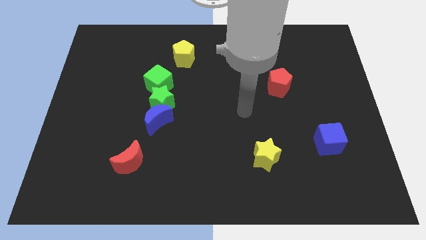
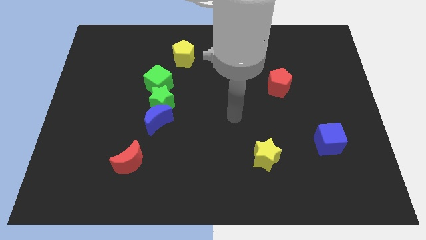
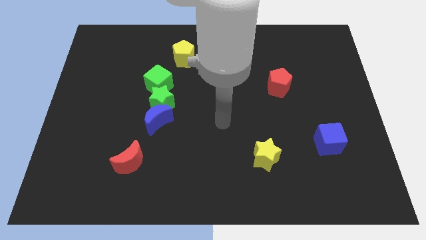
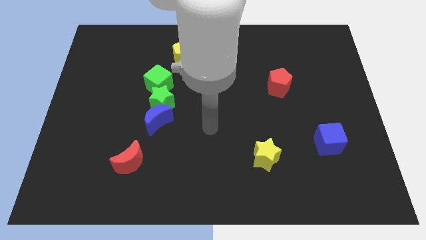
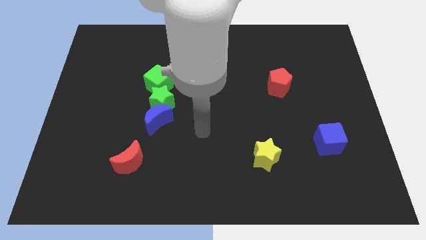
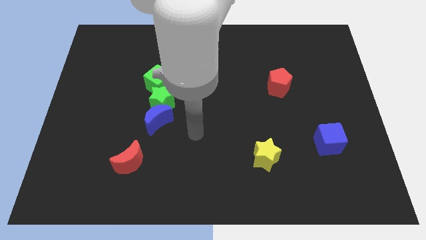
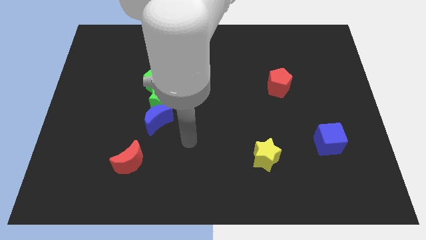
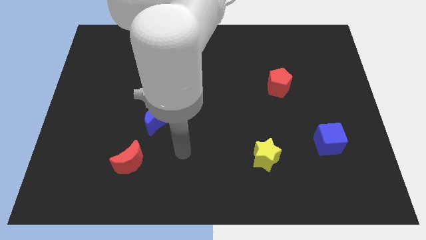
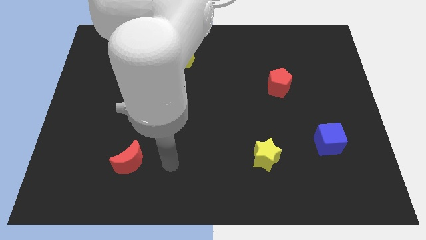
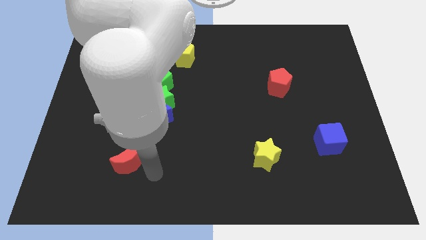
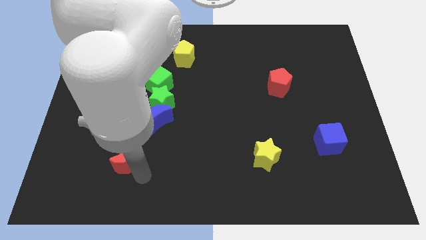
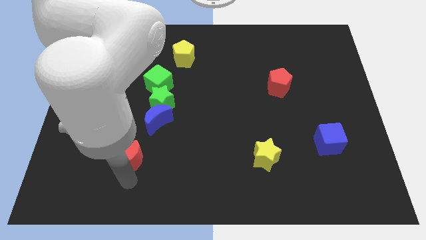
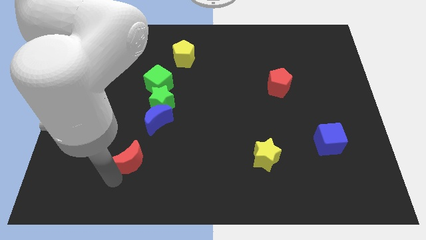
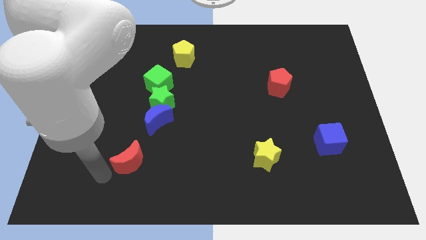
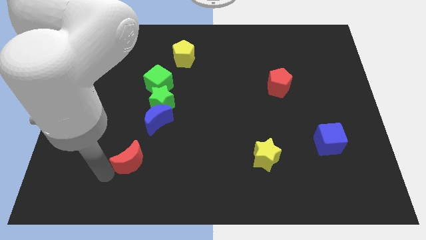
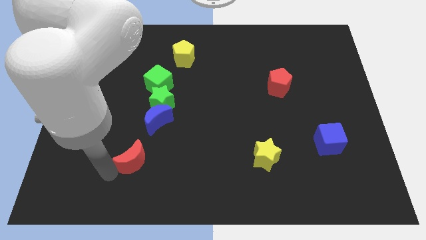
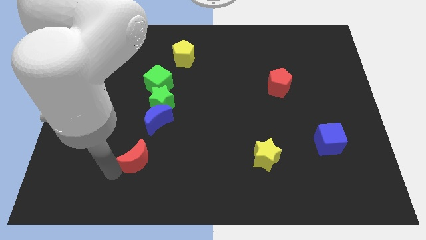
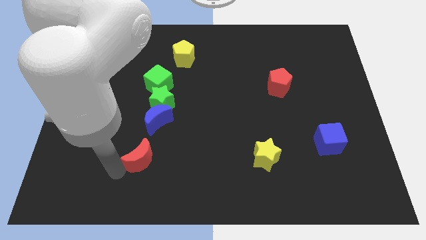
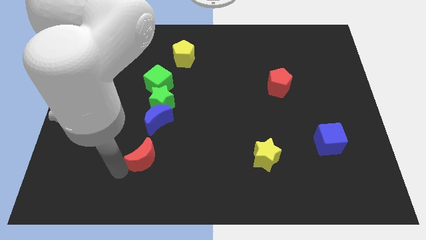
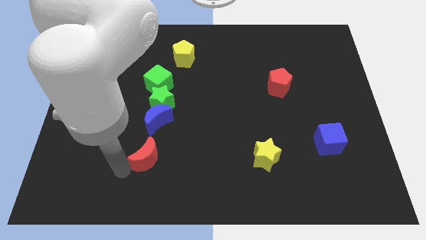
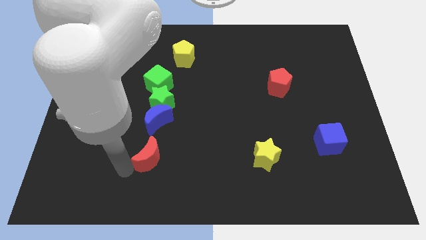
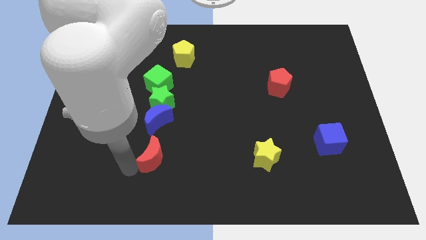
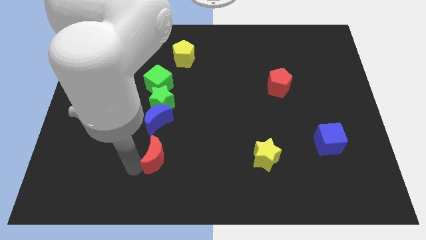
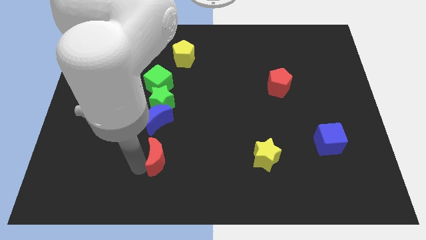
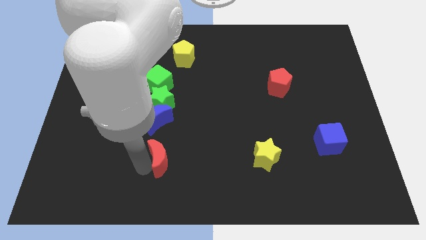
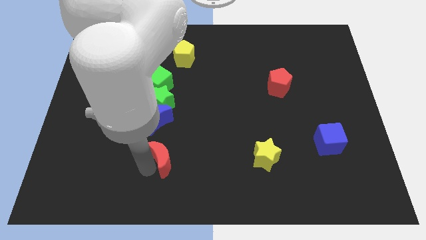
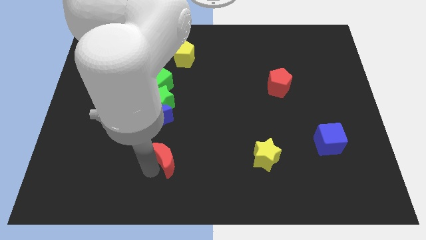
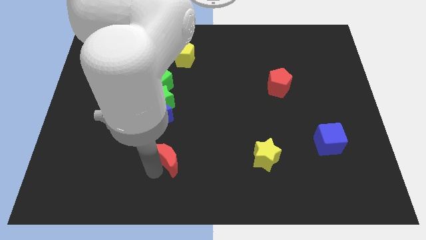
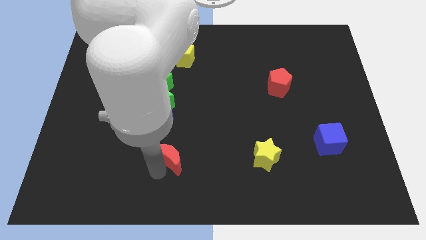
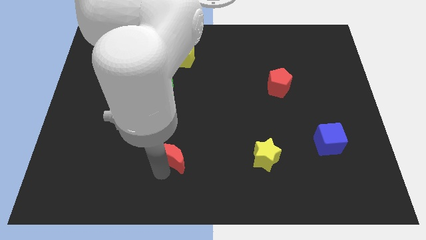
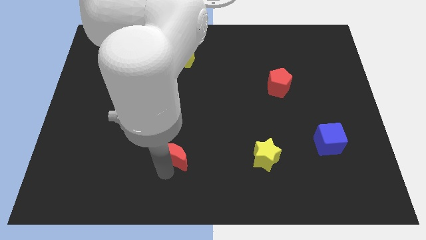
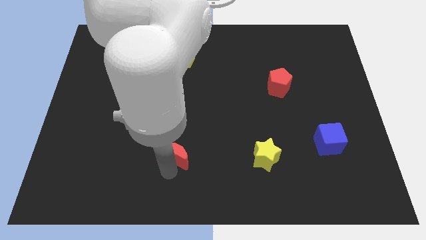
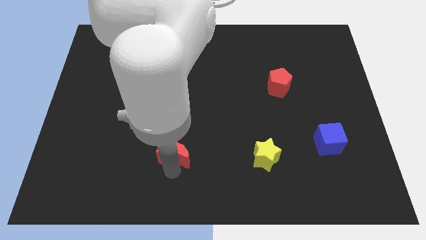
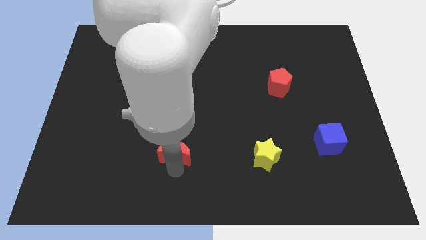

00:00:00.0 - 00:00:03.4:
push the red moon slightly upwards and then to the right

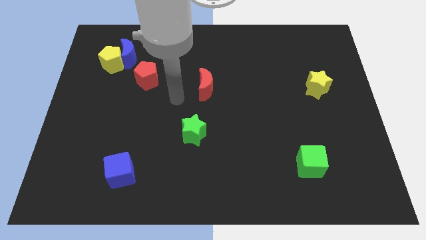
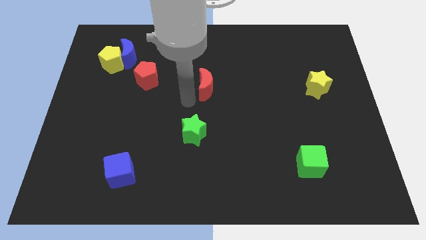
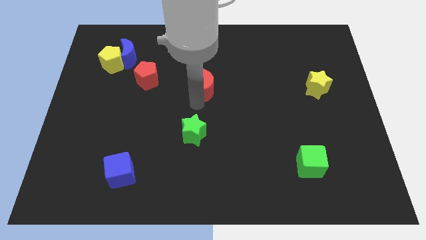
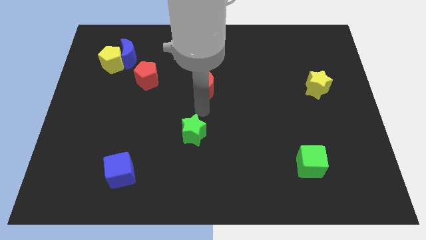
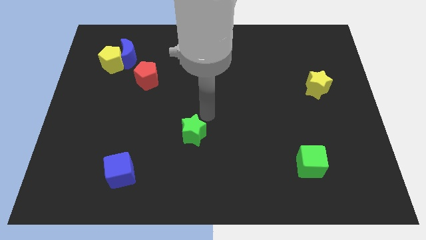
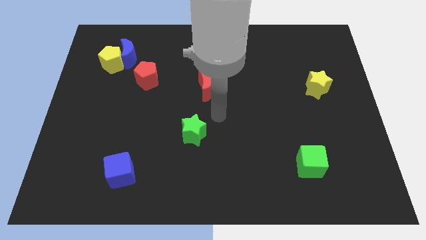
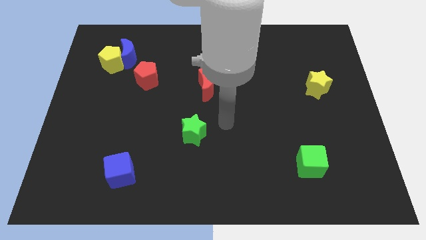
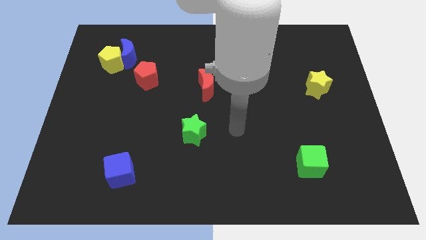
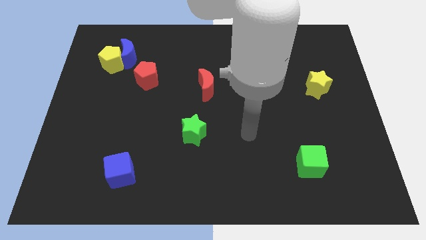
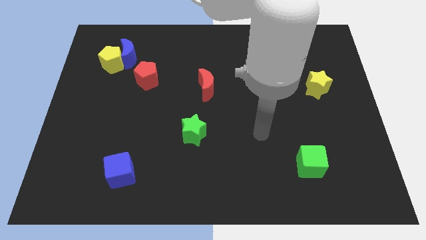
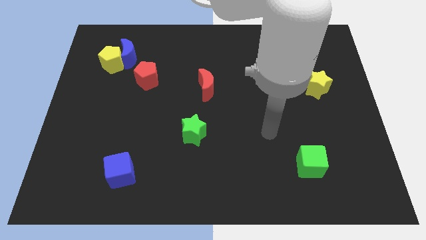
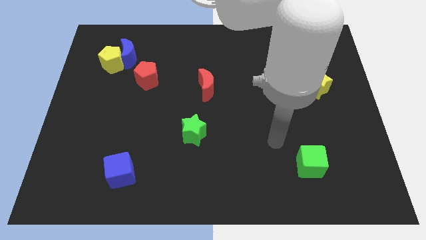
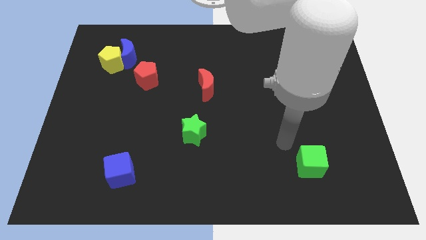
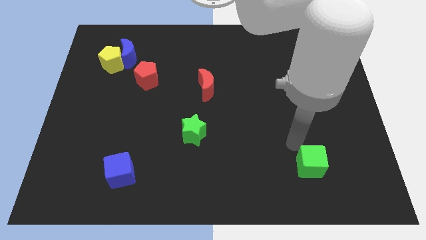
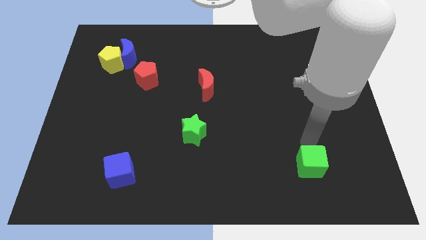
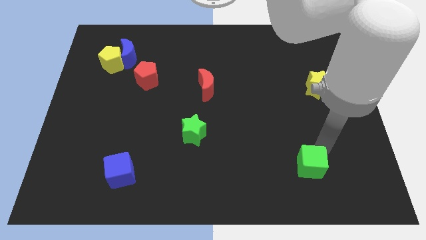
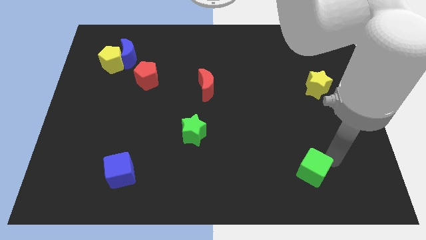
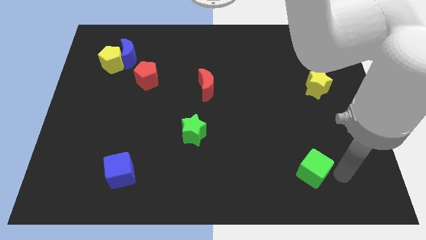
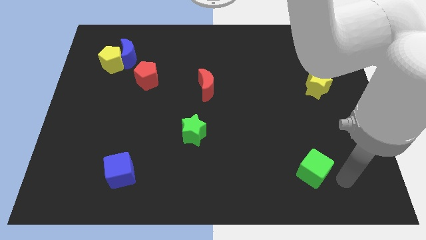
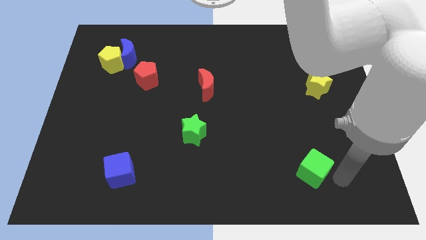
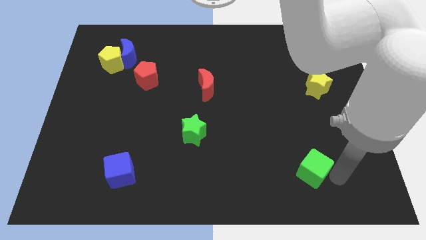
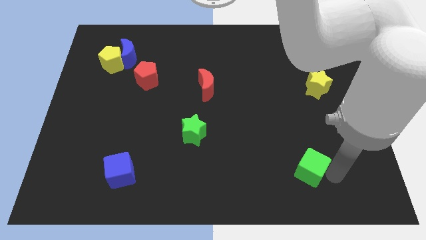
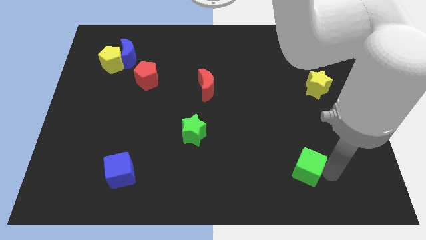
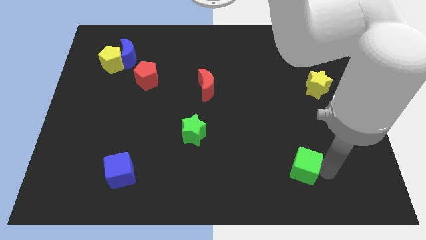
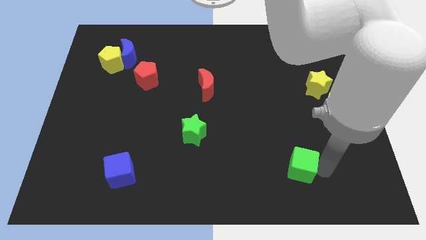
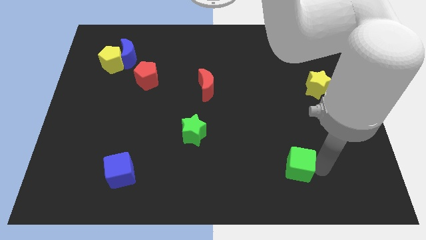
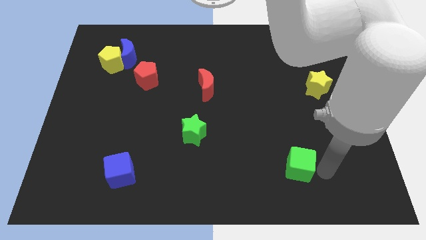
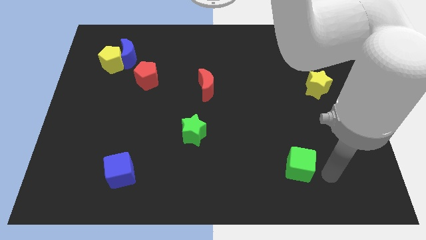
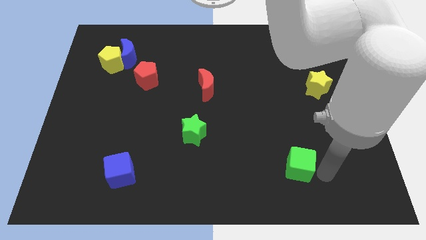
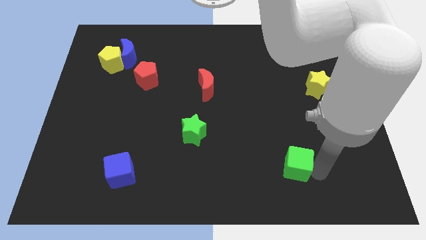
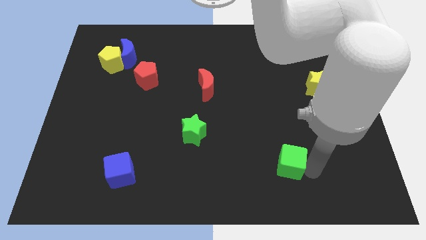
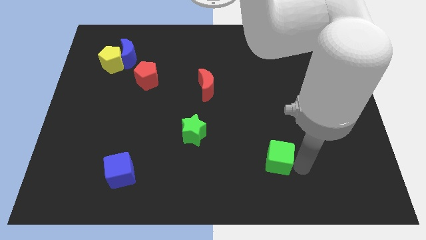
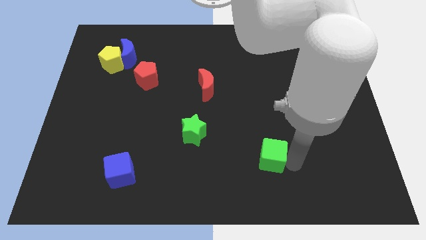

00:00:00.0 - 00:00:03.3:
move the green cube a bit left

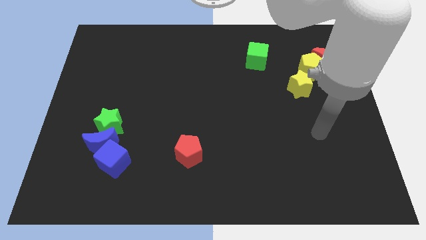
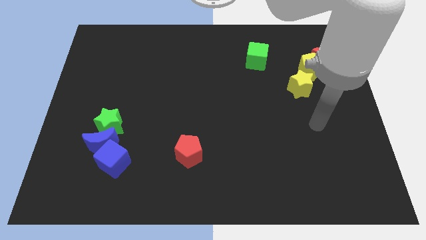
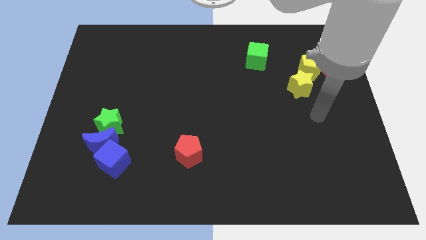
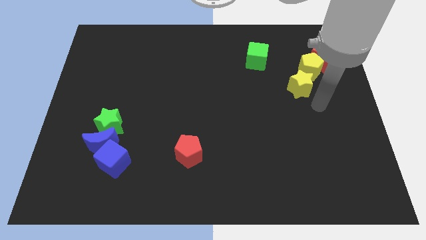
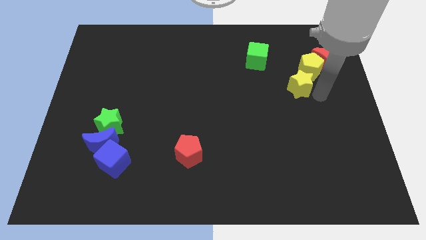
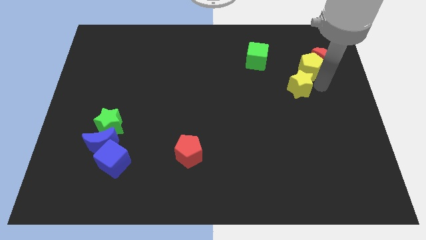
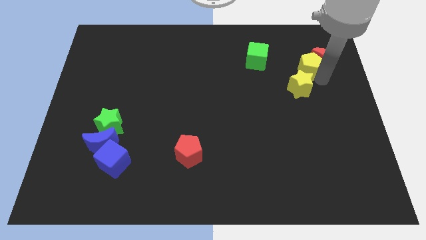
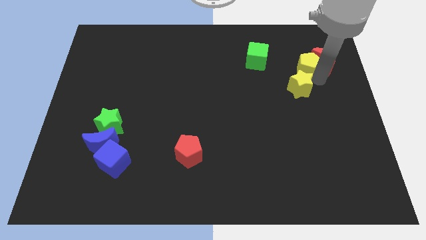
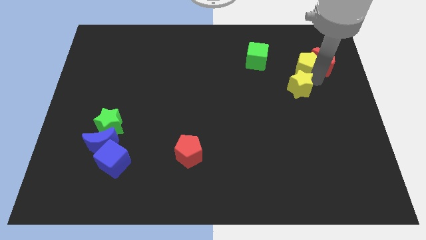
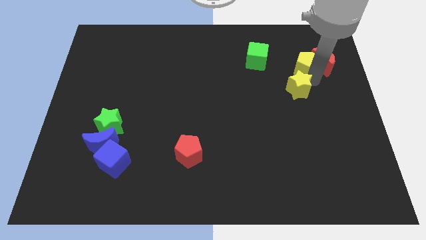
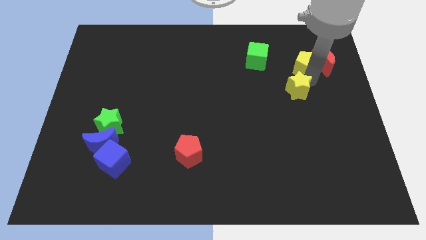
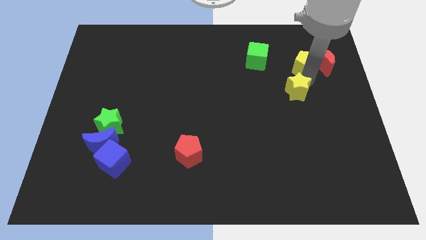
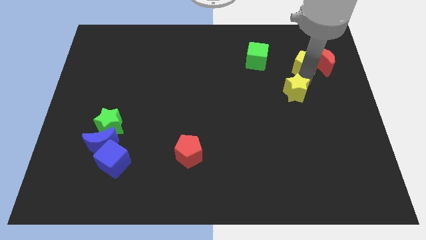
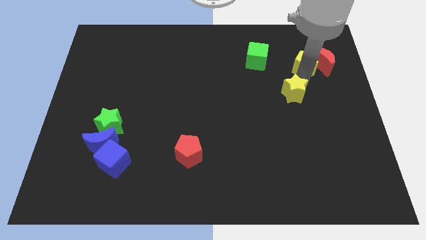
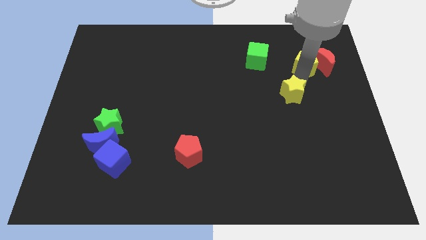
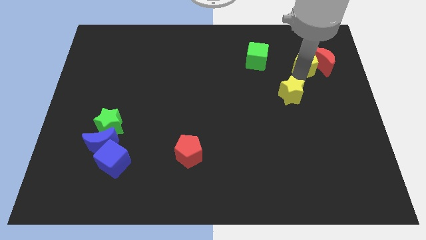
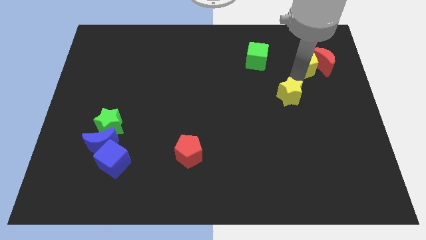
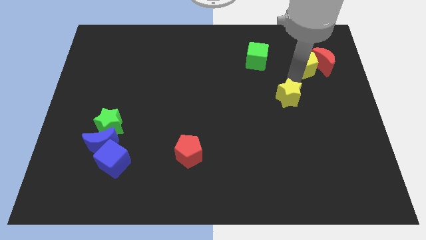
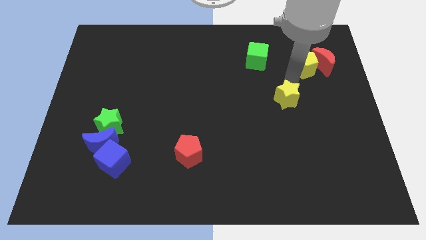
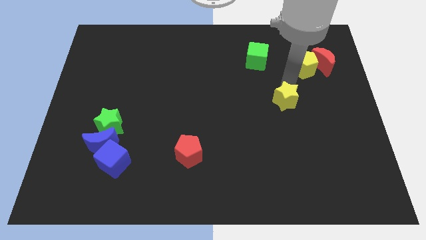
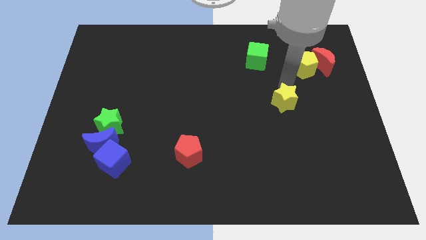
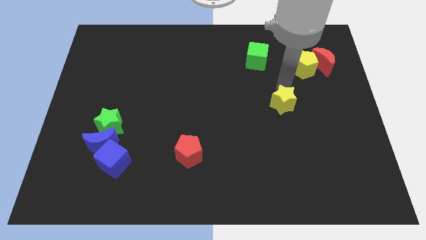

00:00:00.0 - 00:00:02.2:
slide the yellow star down and to the left slightly
